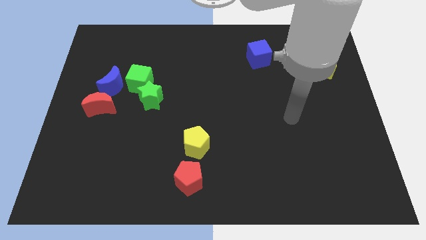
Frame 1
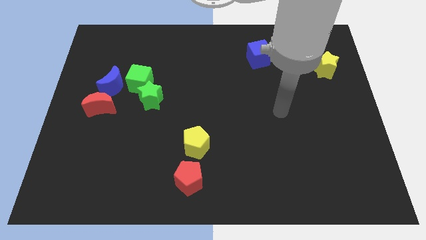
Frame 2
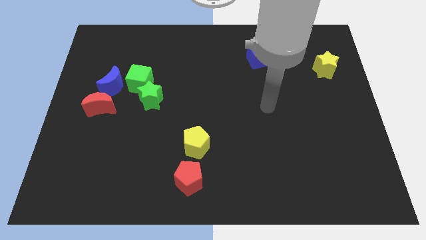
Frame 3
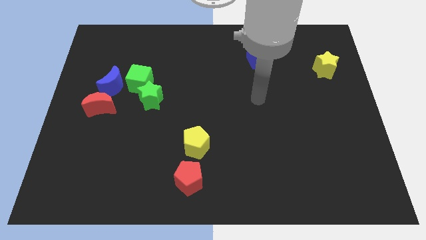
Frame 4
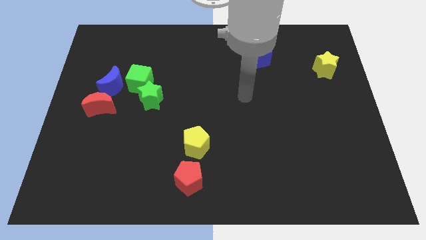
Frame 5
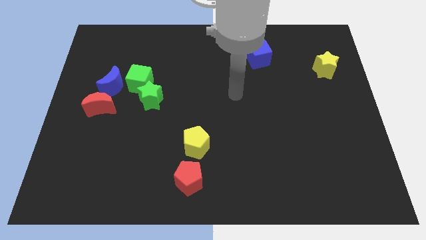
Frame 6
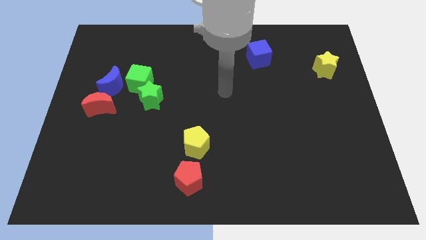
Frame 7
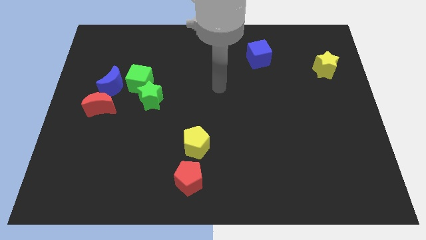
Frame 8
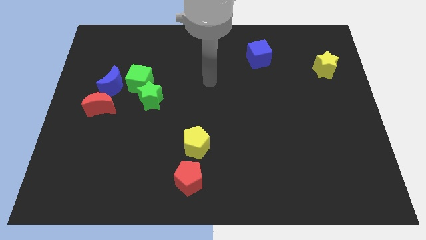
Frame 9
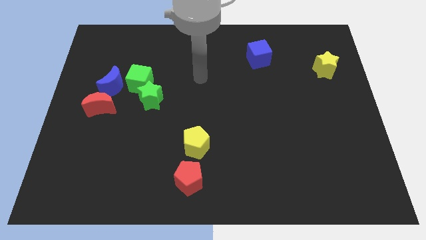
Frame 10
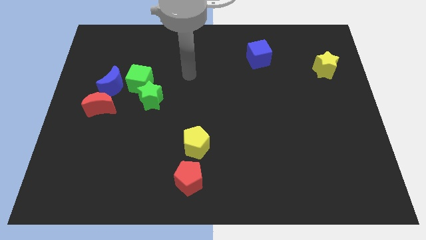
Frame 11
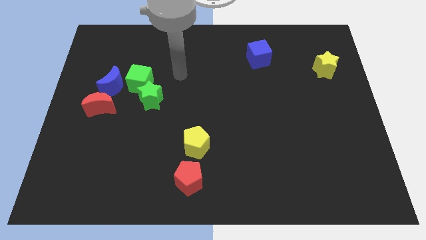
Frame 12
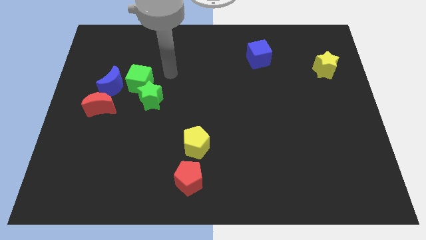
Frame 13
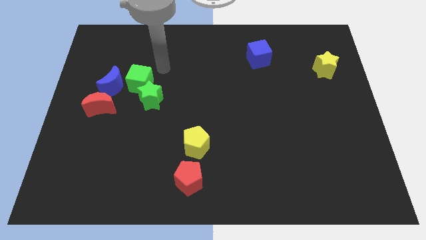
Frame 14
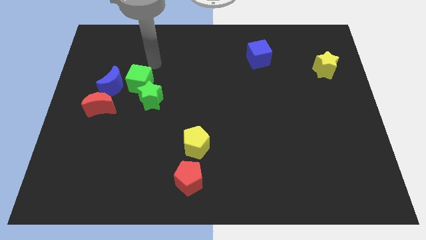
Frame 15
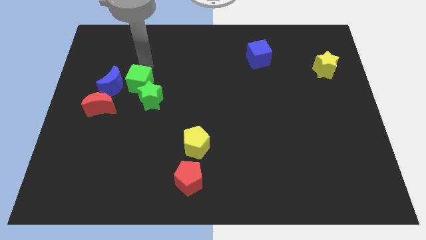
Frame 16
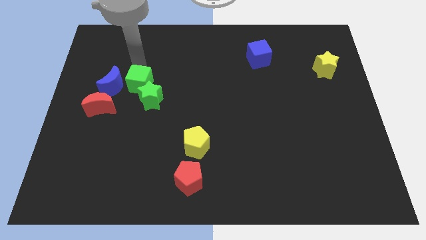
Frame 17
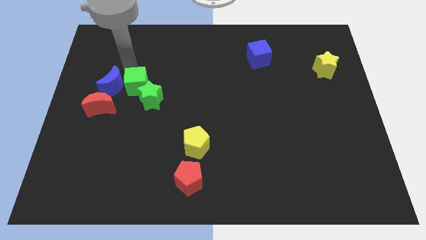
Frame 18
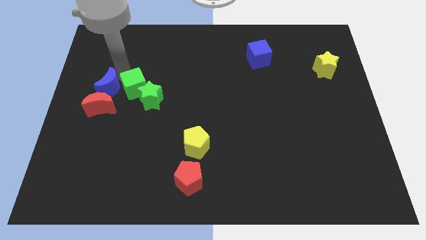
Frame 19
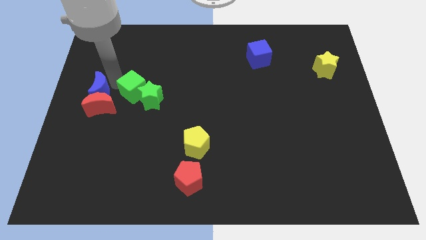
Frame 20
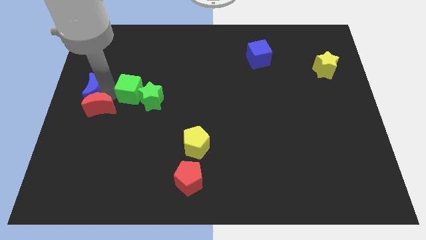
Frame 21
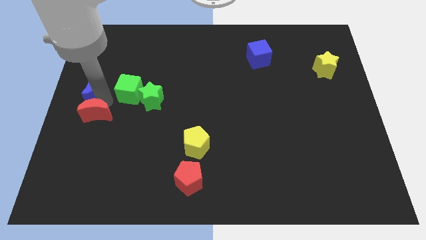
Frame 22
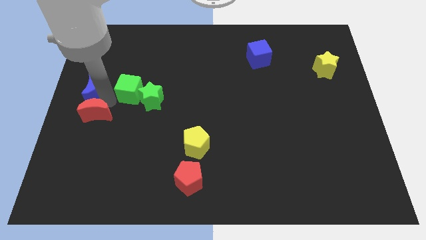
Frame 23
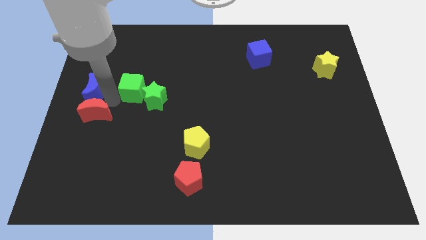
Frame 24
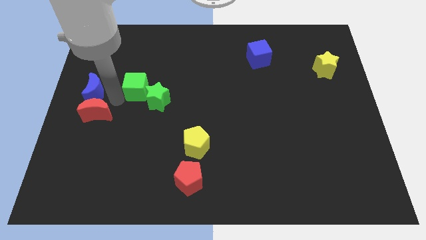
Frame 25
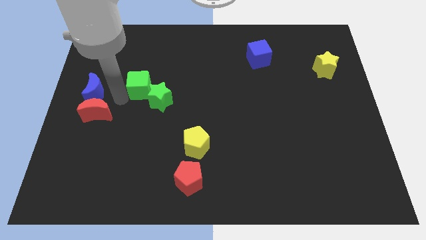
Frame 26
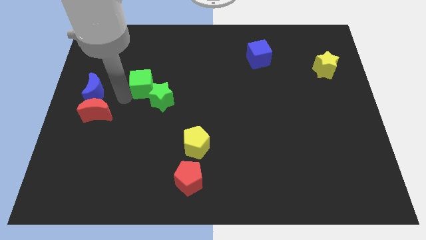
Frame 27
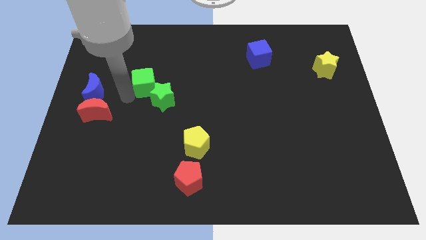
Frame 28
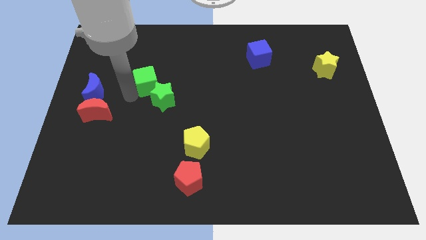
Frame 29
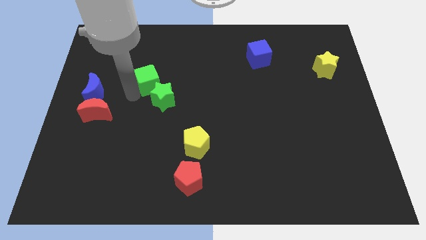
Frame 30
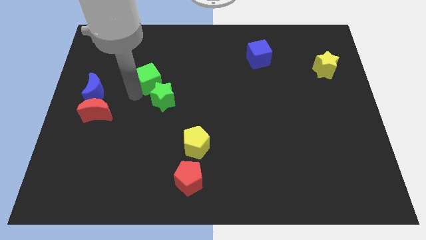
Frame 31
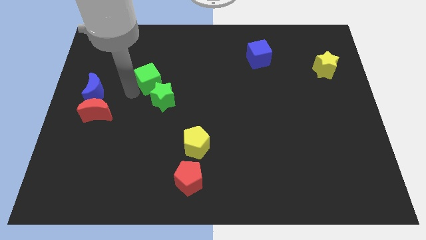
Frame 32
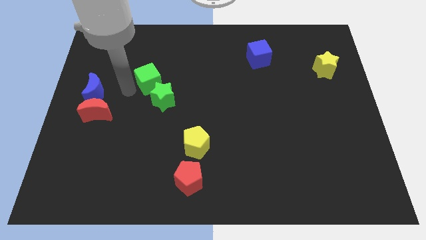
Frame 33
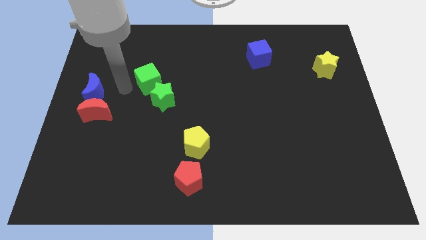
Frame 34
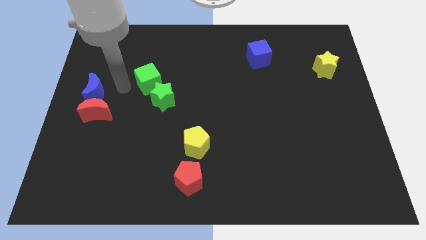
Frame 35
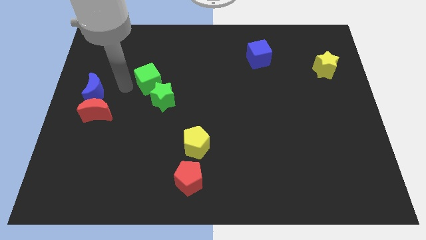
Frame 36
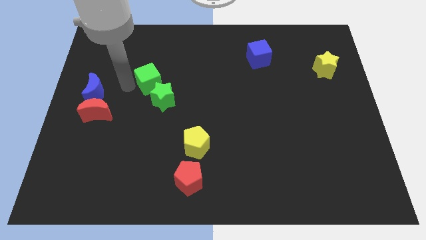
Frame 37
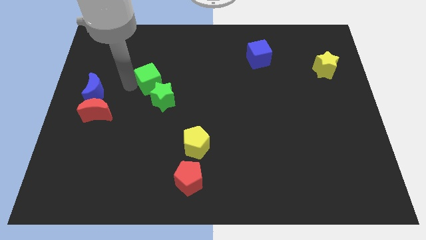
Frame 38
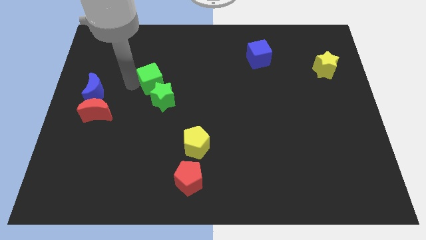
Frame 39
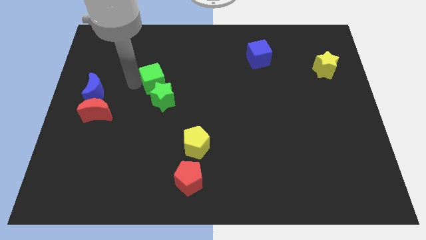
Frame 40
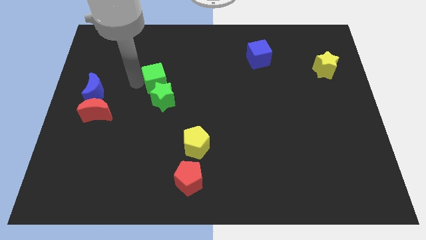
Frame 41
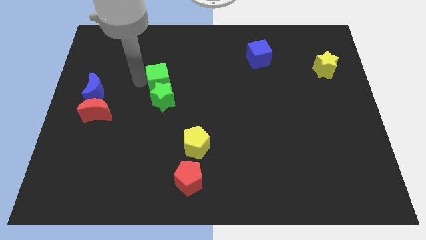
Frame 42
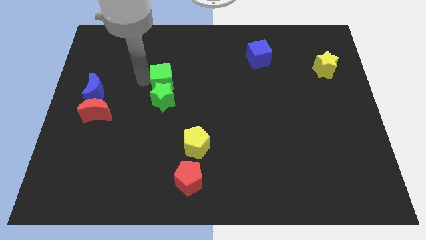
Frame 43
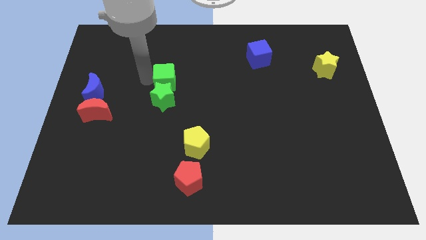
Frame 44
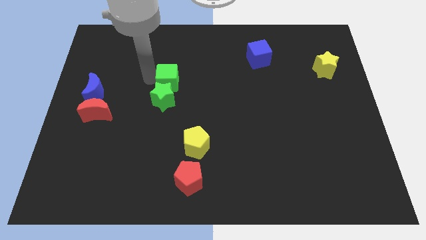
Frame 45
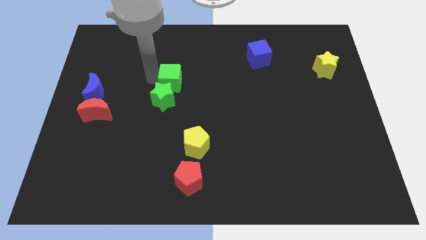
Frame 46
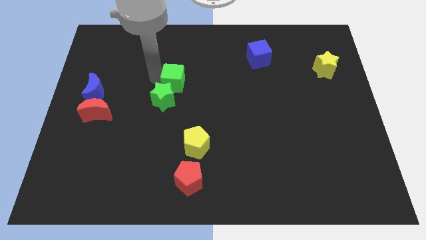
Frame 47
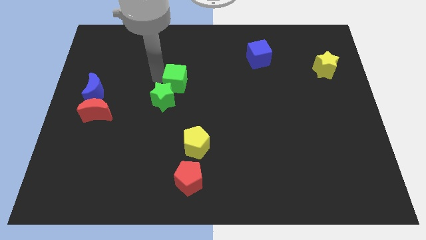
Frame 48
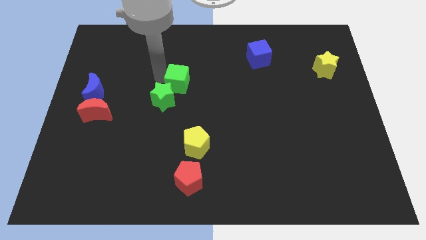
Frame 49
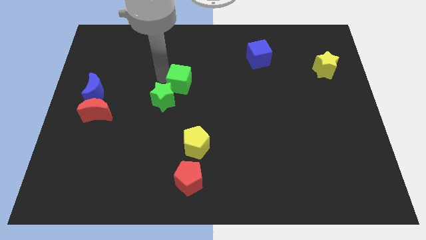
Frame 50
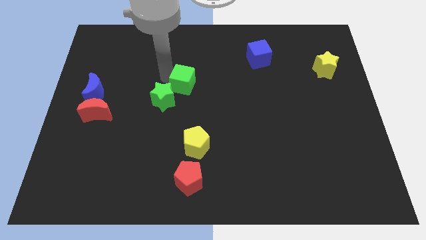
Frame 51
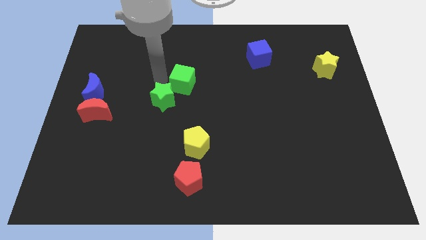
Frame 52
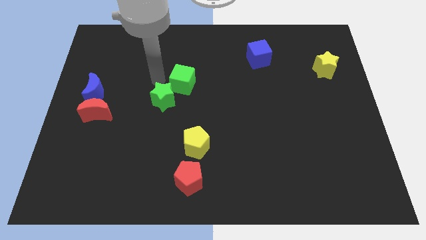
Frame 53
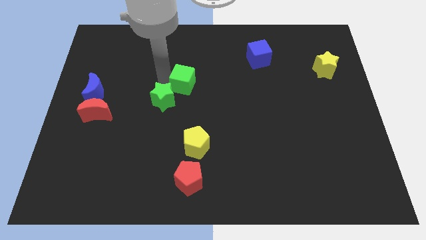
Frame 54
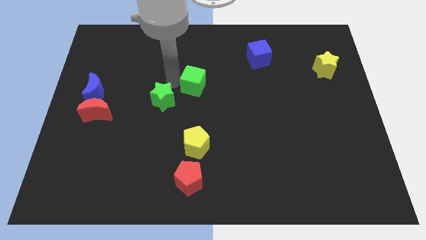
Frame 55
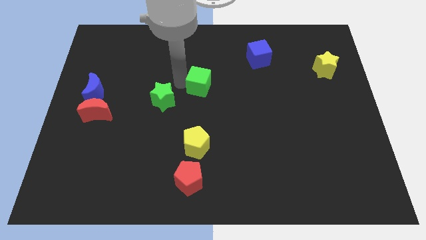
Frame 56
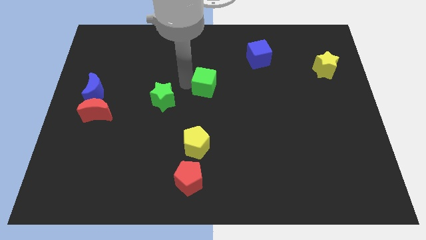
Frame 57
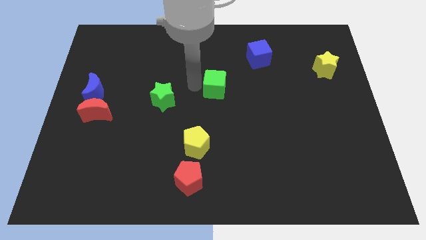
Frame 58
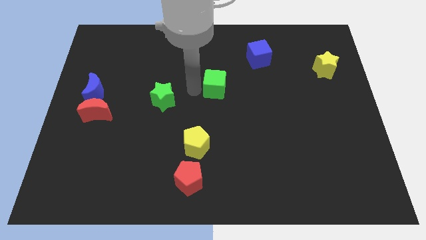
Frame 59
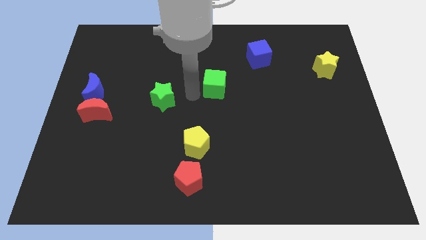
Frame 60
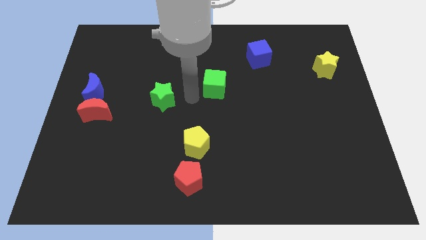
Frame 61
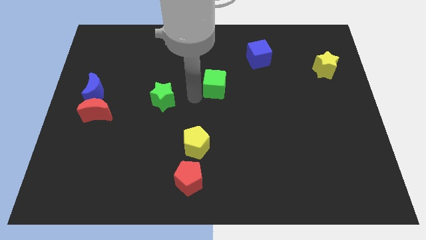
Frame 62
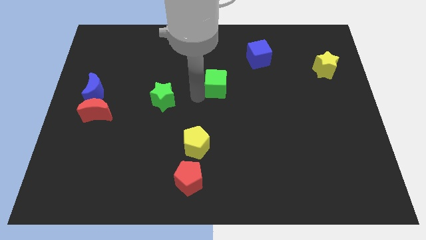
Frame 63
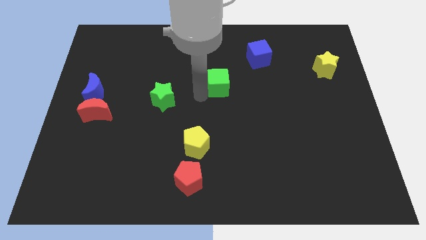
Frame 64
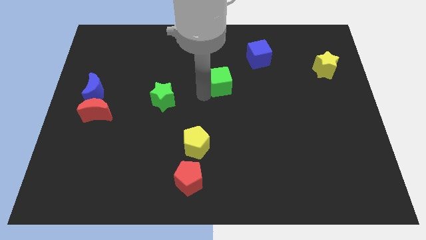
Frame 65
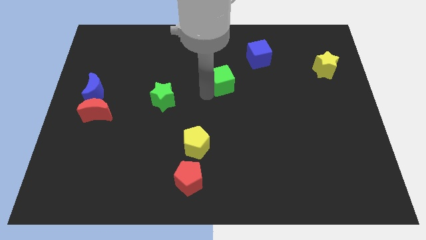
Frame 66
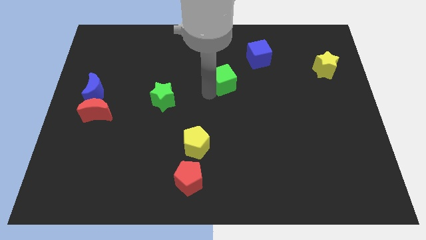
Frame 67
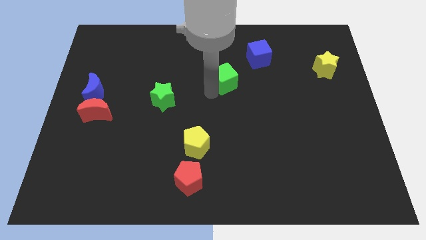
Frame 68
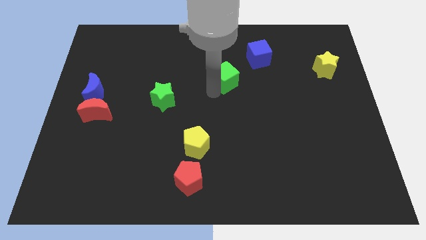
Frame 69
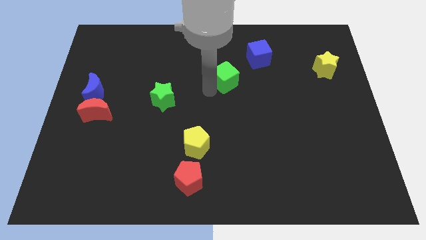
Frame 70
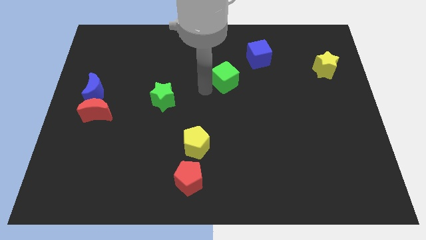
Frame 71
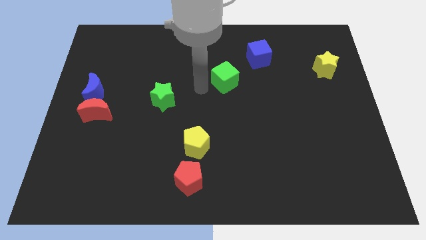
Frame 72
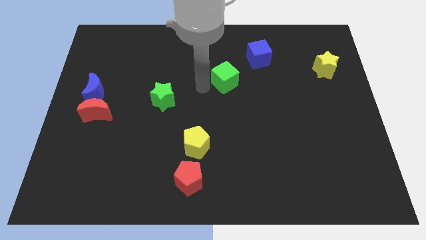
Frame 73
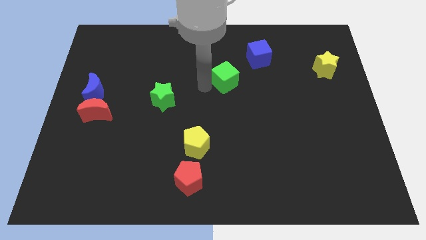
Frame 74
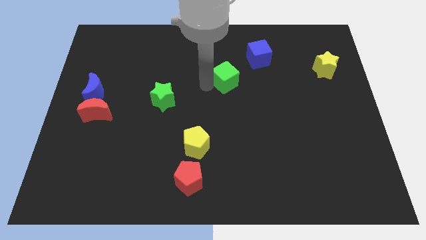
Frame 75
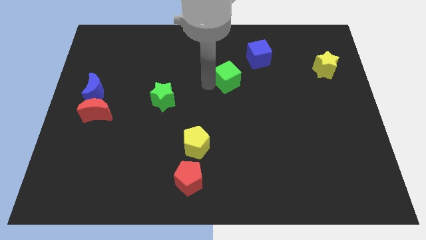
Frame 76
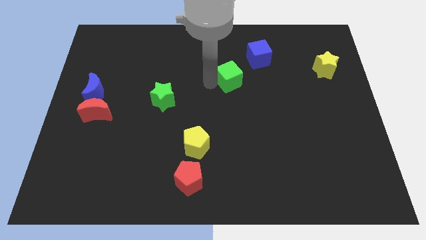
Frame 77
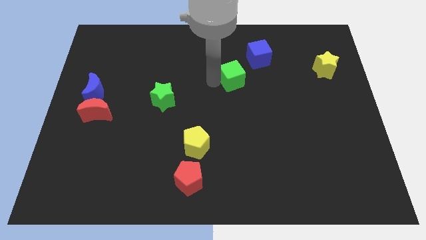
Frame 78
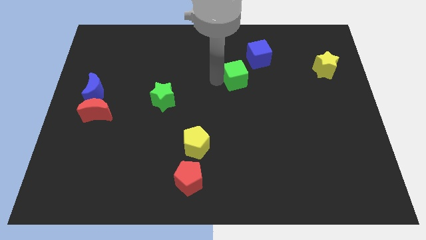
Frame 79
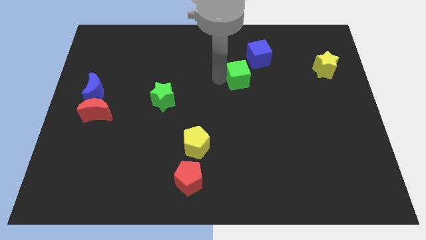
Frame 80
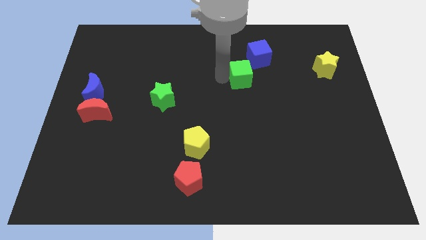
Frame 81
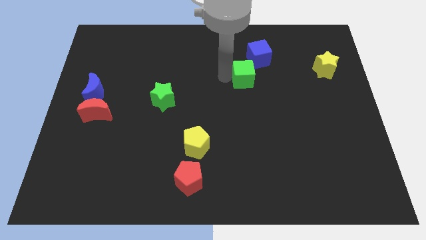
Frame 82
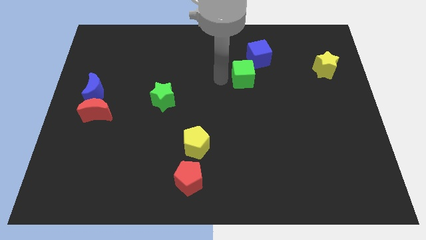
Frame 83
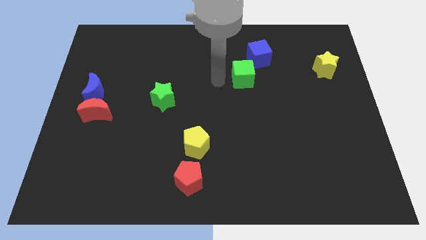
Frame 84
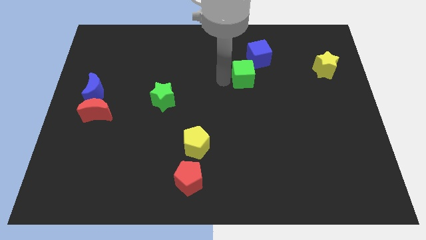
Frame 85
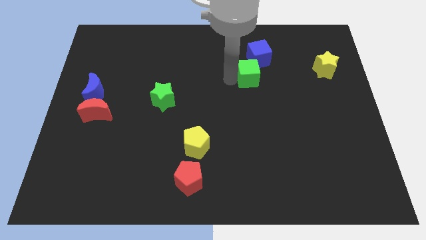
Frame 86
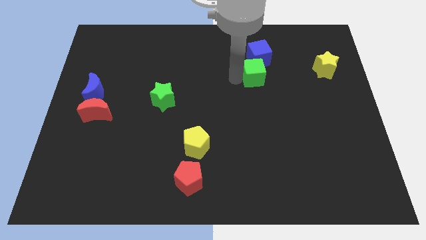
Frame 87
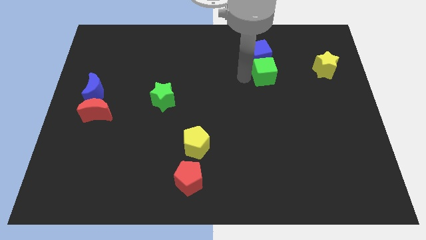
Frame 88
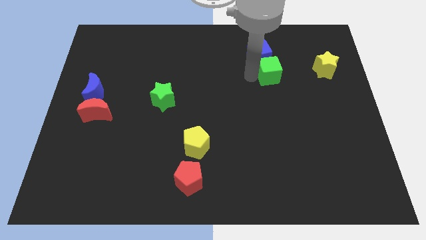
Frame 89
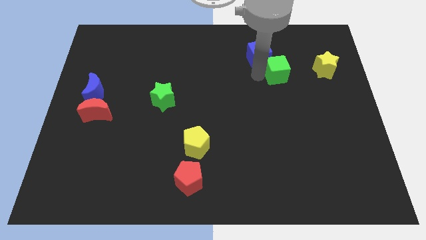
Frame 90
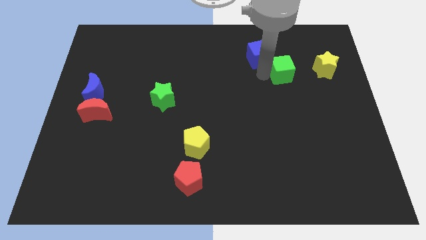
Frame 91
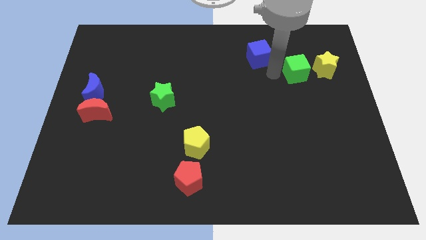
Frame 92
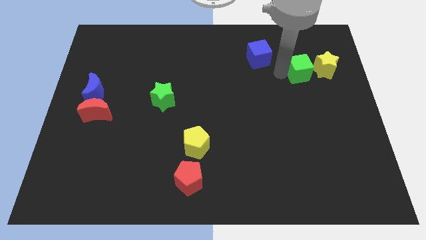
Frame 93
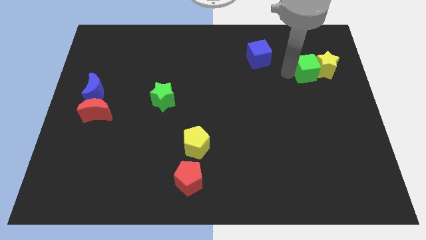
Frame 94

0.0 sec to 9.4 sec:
slide the green cube close to the yellow star
